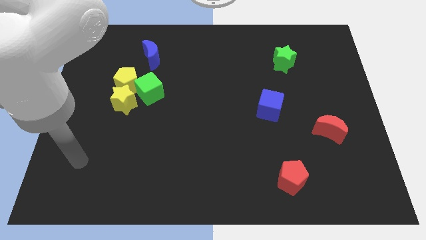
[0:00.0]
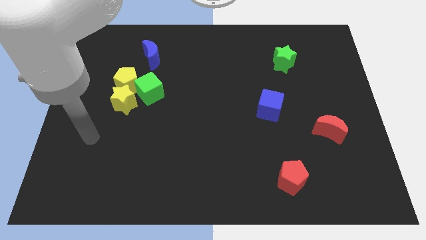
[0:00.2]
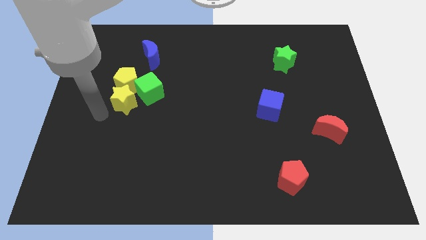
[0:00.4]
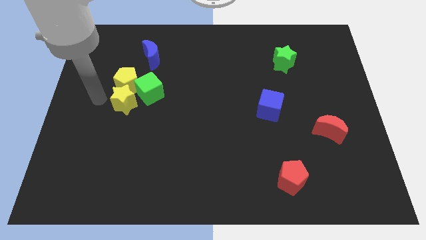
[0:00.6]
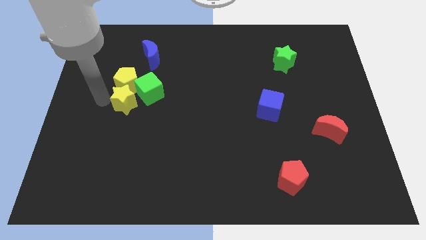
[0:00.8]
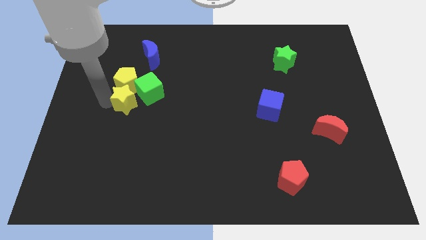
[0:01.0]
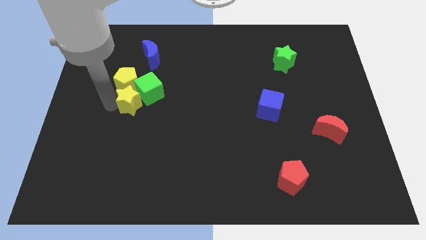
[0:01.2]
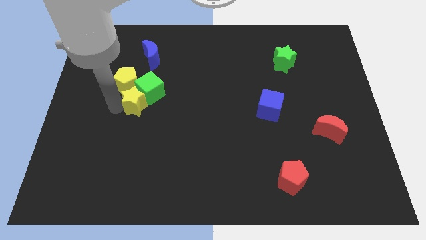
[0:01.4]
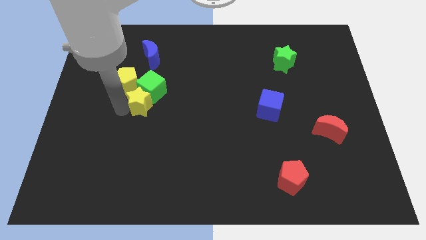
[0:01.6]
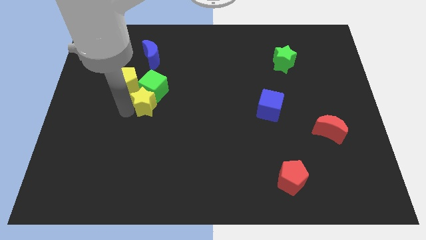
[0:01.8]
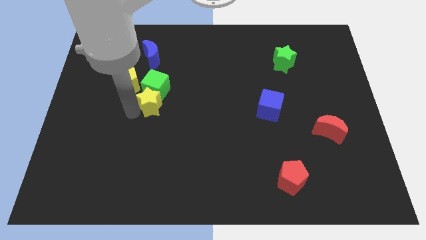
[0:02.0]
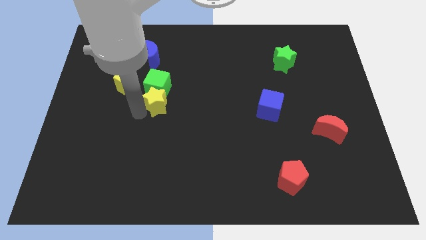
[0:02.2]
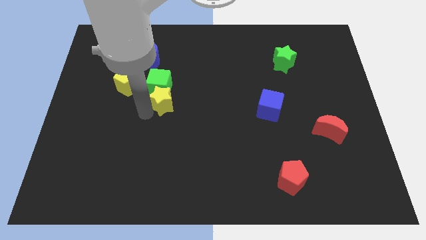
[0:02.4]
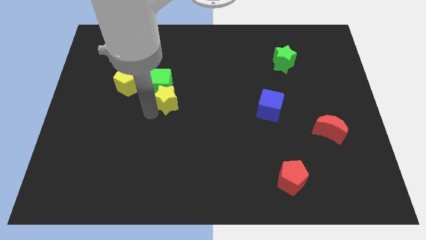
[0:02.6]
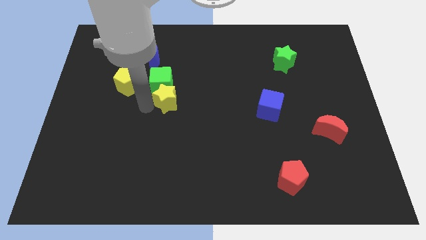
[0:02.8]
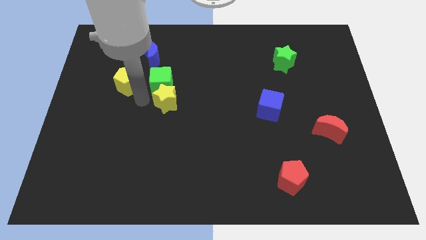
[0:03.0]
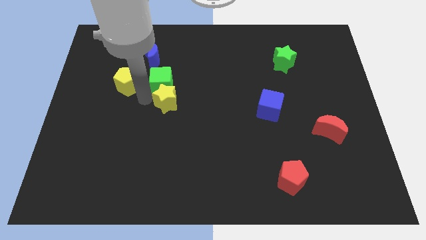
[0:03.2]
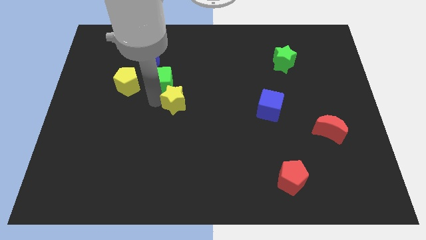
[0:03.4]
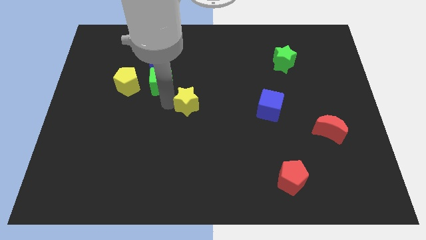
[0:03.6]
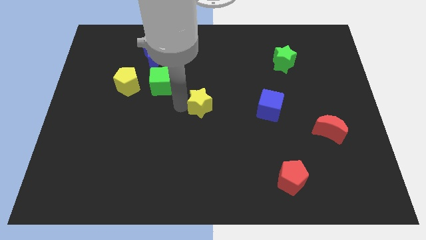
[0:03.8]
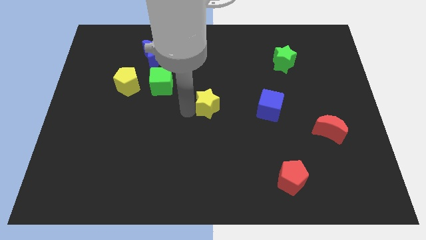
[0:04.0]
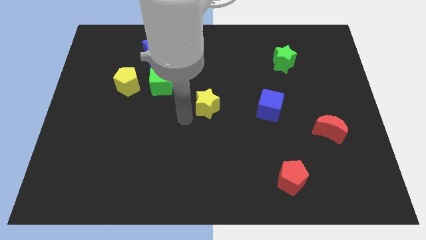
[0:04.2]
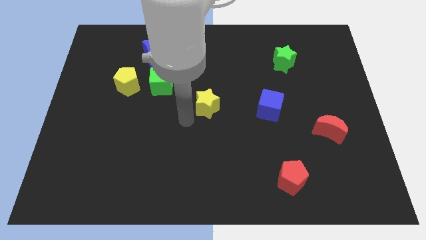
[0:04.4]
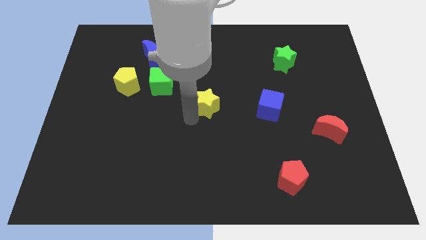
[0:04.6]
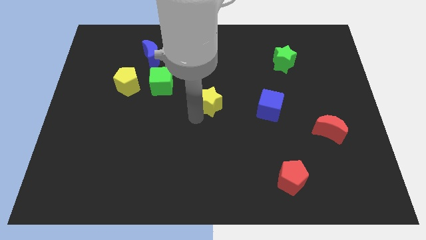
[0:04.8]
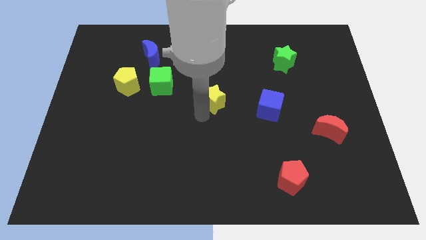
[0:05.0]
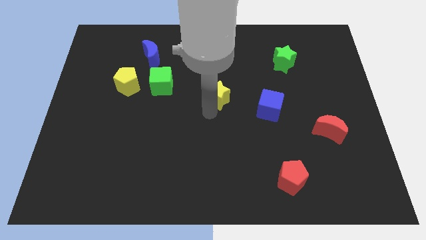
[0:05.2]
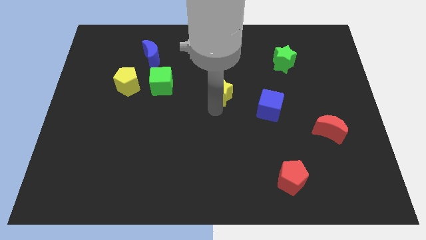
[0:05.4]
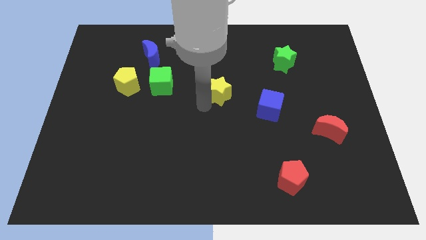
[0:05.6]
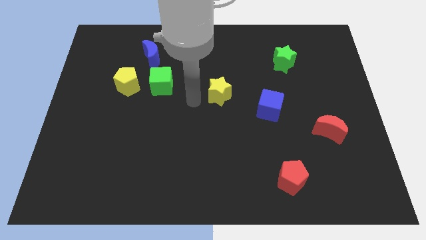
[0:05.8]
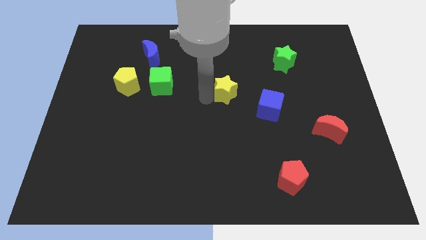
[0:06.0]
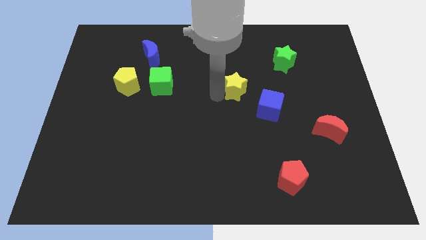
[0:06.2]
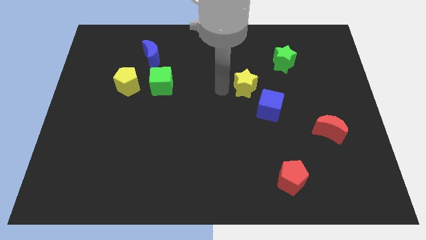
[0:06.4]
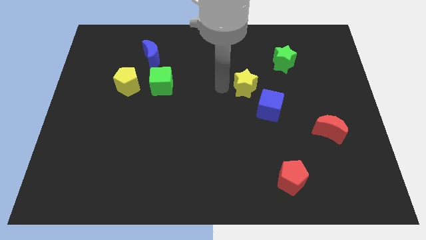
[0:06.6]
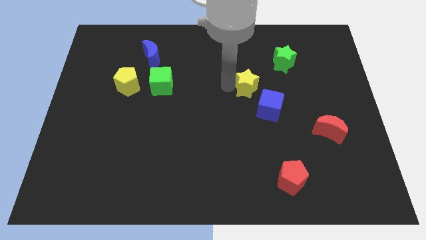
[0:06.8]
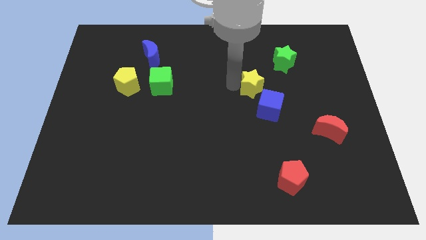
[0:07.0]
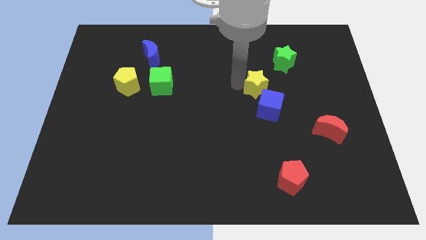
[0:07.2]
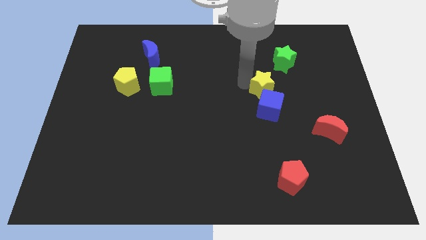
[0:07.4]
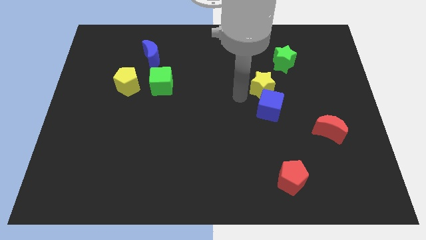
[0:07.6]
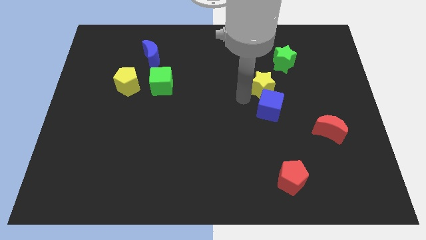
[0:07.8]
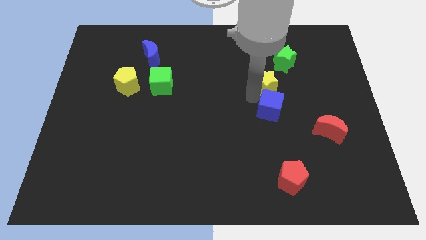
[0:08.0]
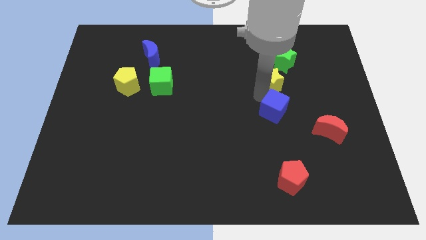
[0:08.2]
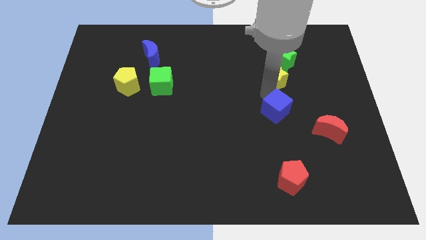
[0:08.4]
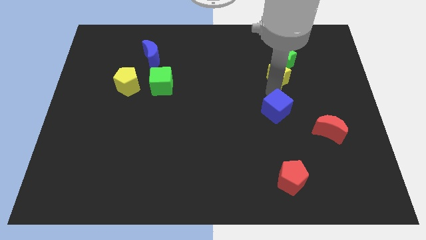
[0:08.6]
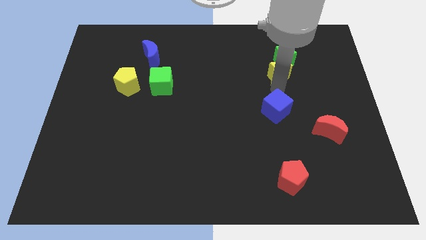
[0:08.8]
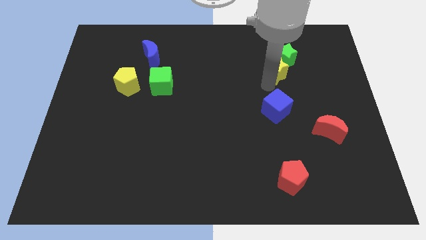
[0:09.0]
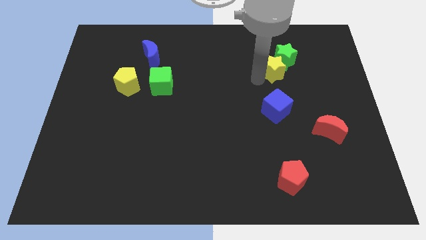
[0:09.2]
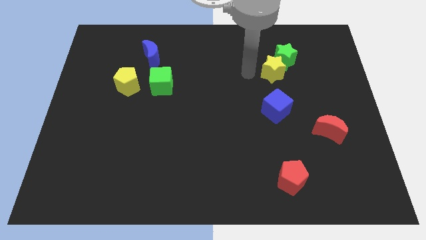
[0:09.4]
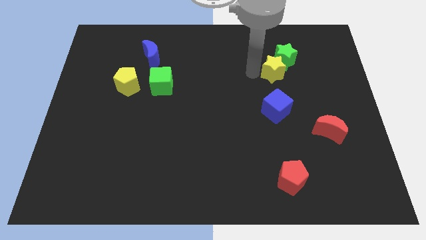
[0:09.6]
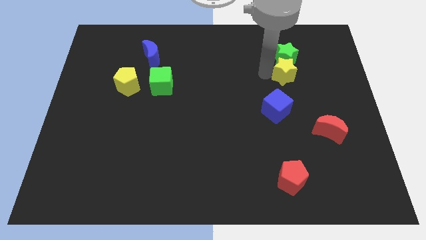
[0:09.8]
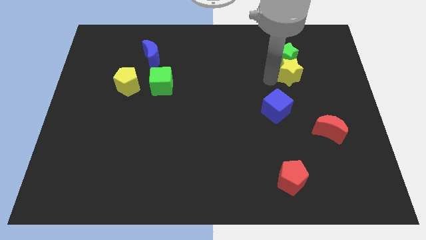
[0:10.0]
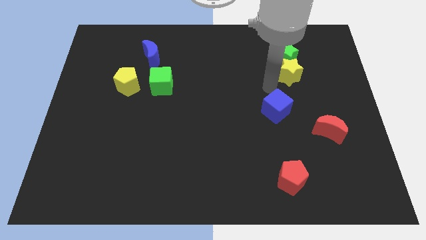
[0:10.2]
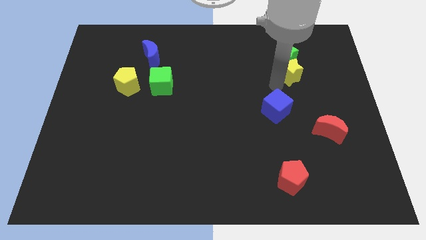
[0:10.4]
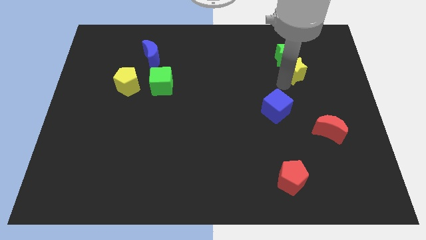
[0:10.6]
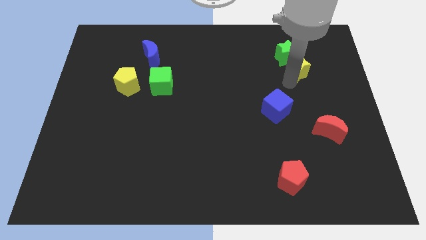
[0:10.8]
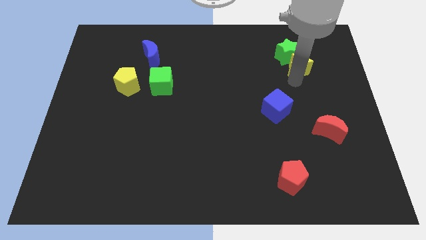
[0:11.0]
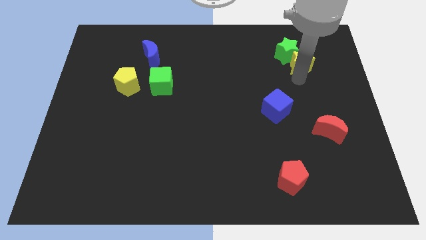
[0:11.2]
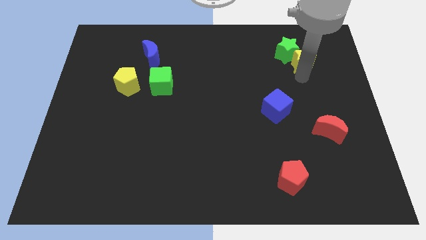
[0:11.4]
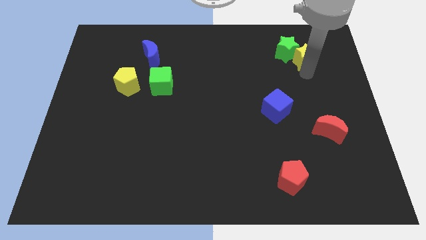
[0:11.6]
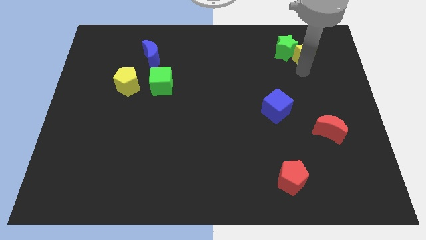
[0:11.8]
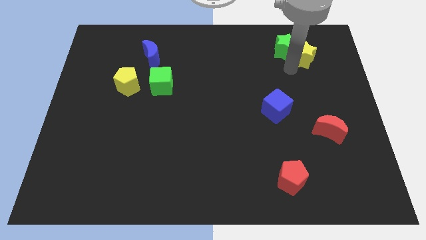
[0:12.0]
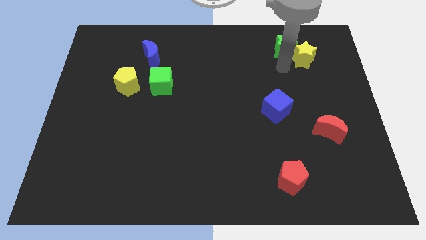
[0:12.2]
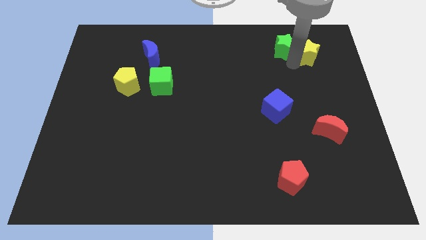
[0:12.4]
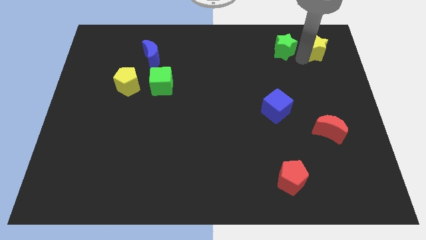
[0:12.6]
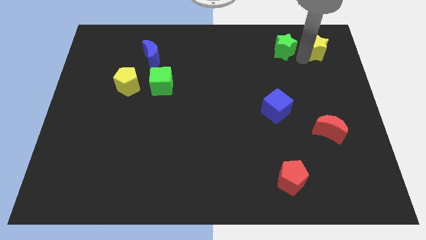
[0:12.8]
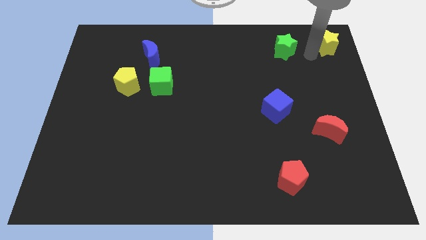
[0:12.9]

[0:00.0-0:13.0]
slide the yellow star to the top right corner

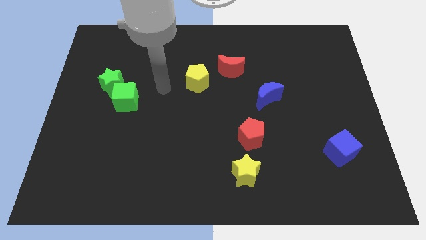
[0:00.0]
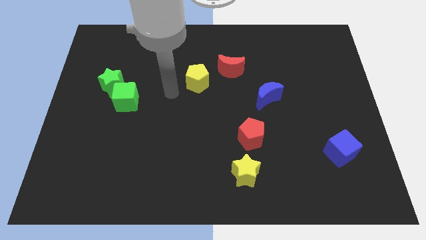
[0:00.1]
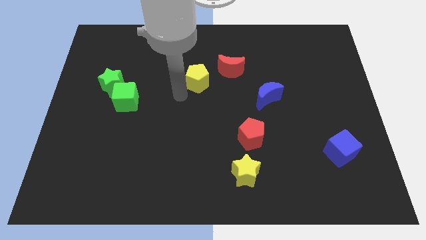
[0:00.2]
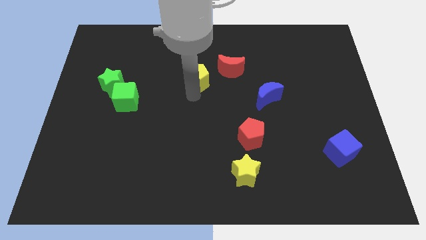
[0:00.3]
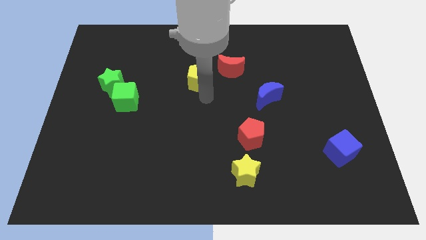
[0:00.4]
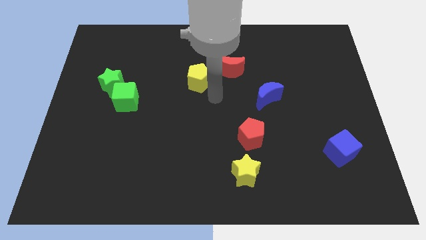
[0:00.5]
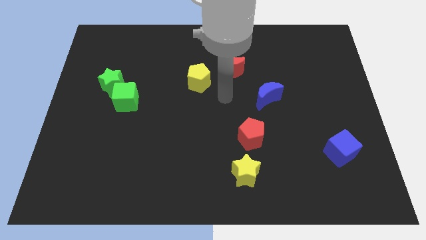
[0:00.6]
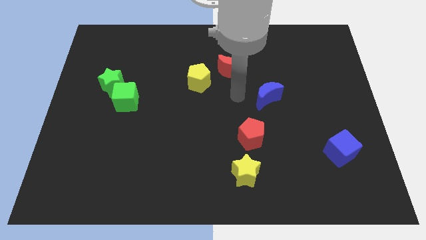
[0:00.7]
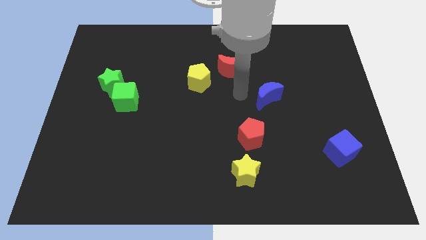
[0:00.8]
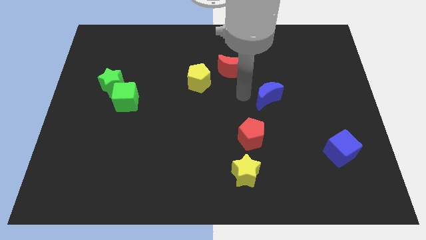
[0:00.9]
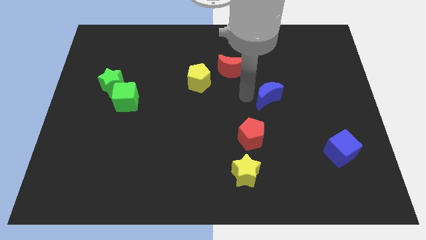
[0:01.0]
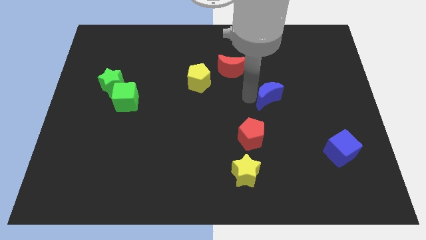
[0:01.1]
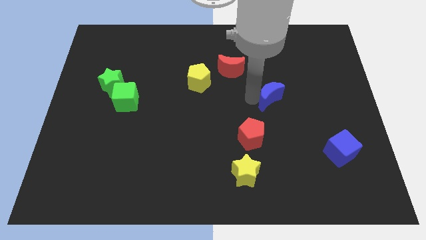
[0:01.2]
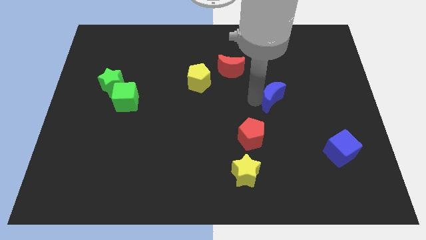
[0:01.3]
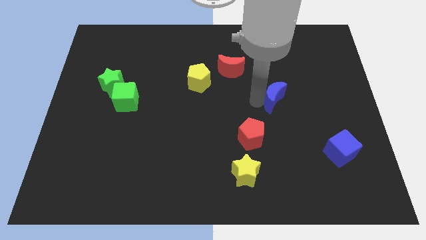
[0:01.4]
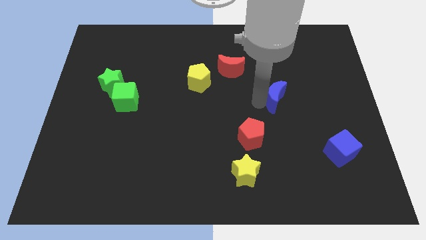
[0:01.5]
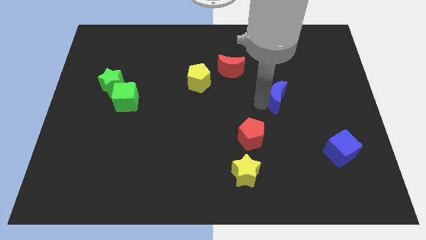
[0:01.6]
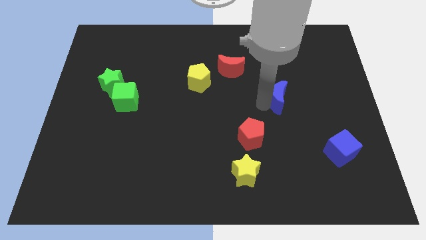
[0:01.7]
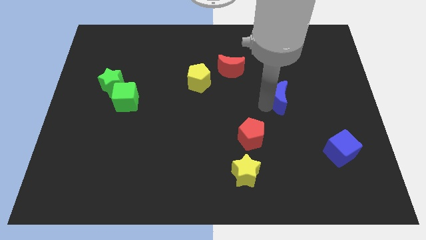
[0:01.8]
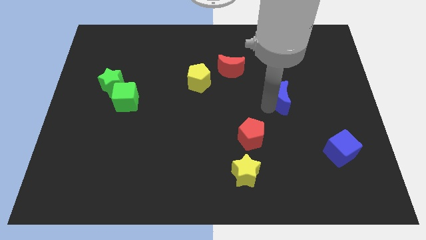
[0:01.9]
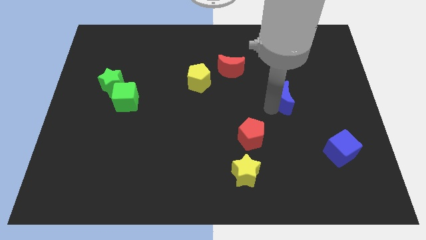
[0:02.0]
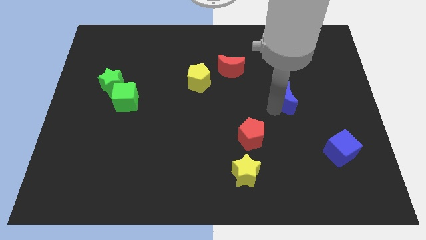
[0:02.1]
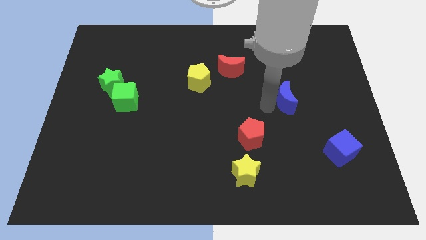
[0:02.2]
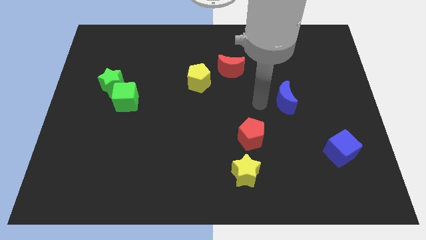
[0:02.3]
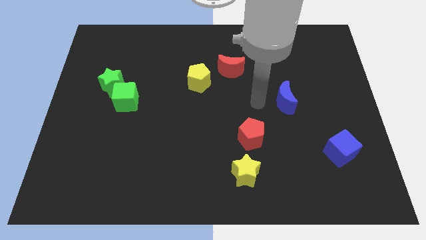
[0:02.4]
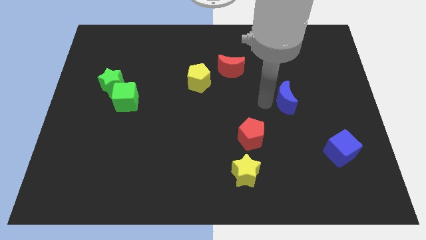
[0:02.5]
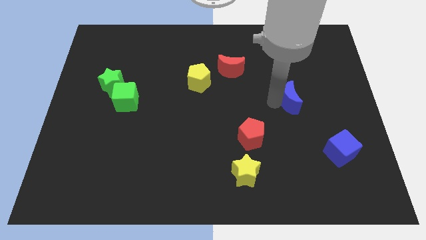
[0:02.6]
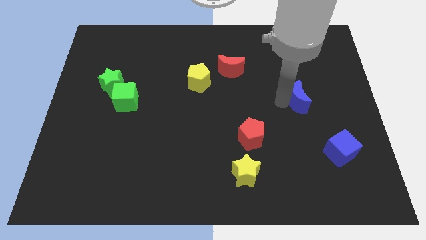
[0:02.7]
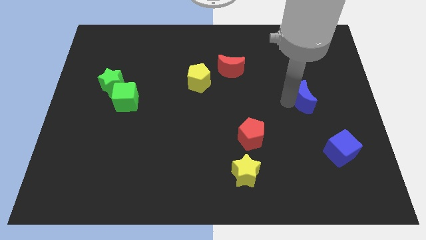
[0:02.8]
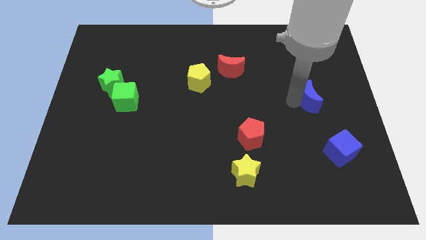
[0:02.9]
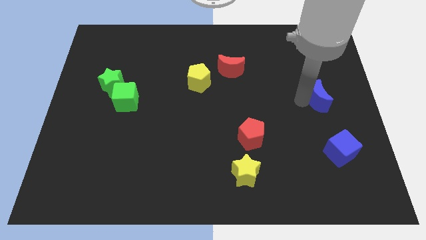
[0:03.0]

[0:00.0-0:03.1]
slide the blue moon to the center right
